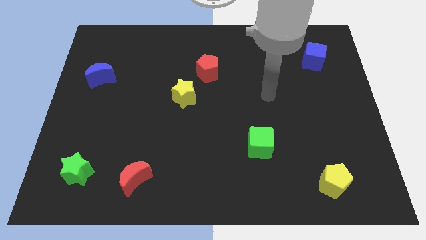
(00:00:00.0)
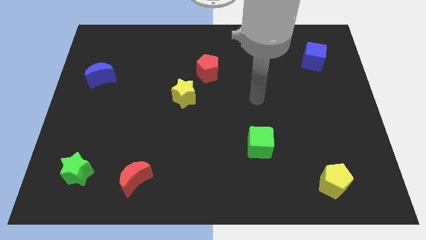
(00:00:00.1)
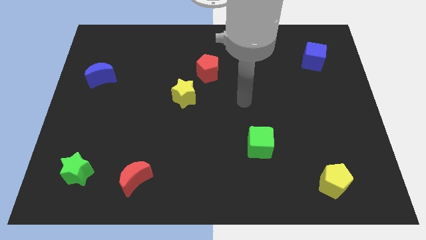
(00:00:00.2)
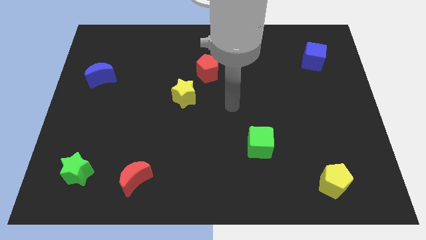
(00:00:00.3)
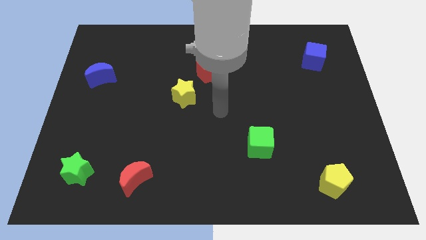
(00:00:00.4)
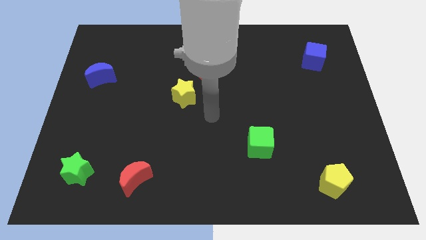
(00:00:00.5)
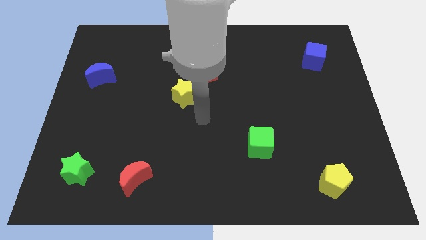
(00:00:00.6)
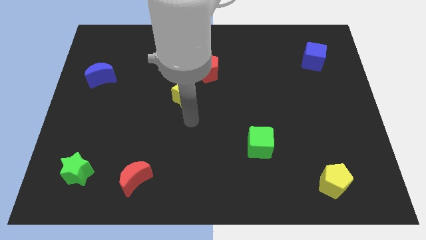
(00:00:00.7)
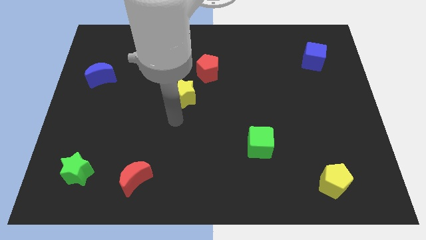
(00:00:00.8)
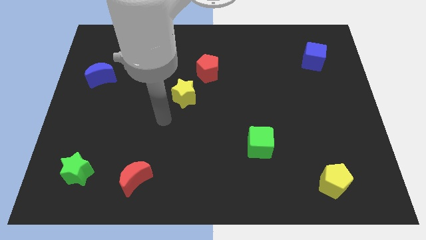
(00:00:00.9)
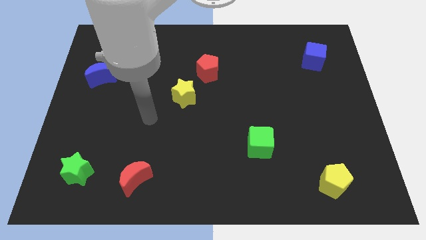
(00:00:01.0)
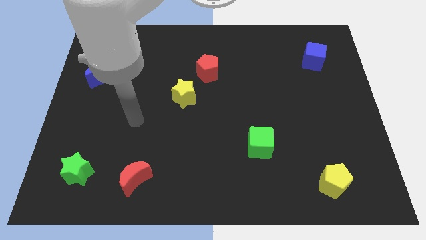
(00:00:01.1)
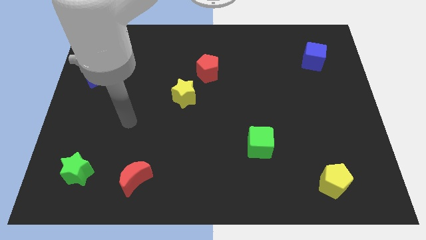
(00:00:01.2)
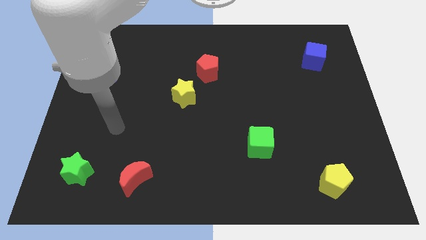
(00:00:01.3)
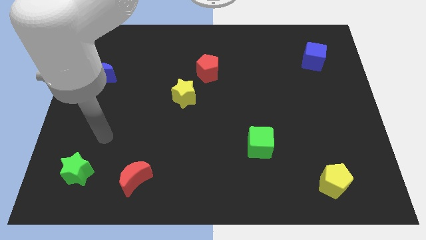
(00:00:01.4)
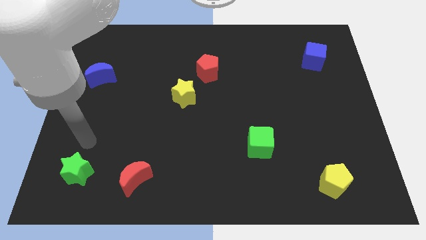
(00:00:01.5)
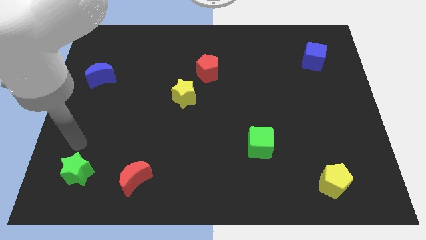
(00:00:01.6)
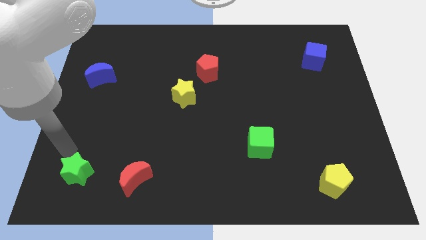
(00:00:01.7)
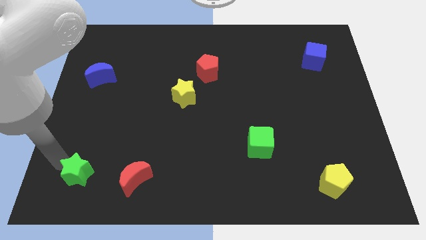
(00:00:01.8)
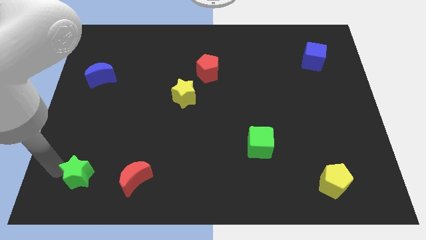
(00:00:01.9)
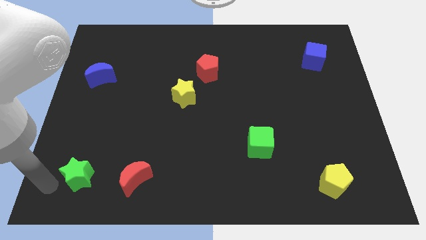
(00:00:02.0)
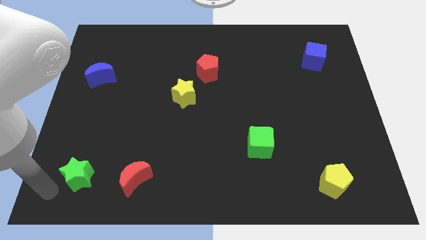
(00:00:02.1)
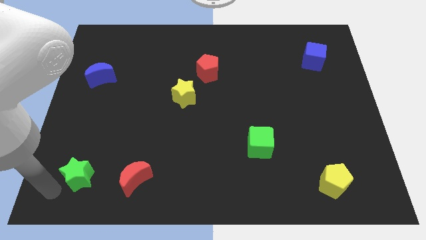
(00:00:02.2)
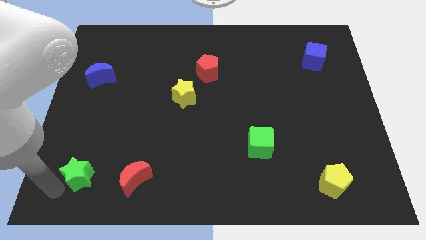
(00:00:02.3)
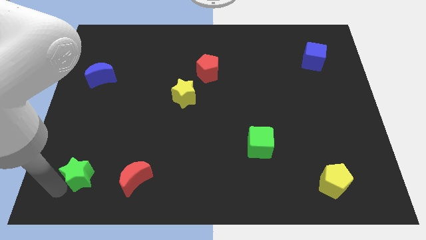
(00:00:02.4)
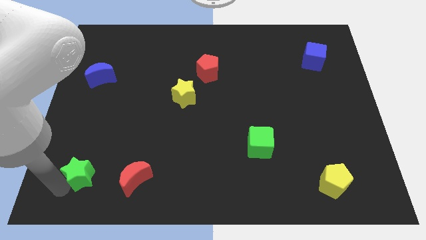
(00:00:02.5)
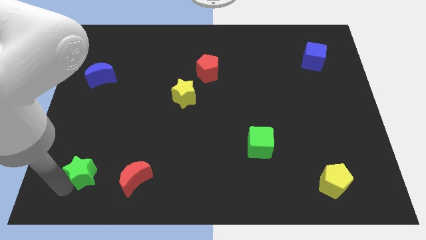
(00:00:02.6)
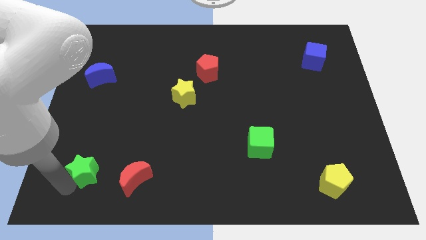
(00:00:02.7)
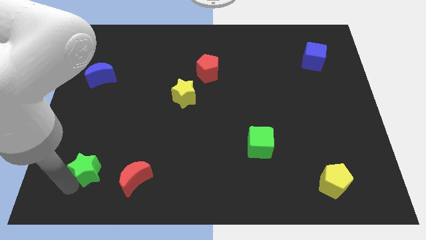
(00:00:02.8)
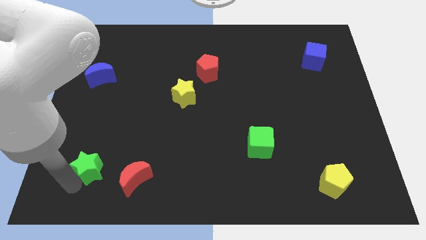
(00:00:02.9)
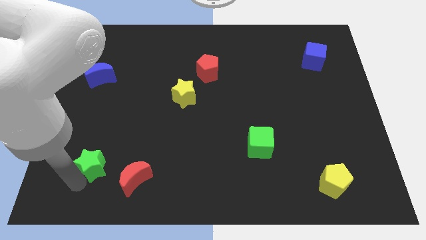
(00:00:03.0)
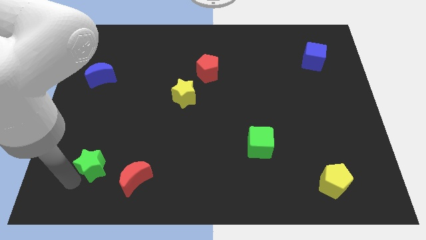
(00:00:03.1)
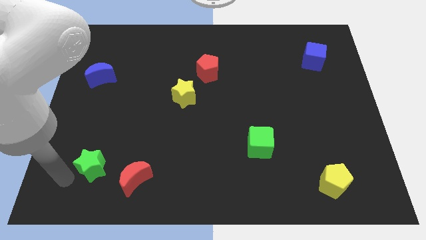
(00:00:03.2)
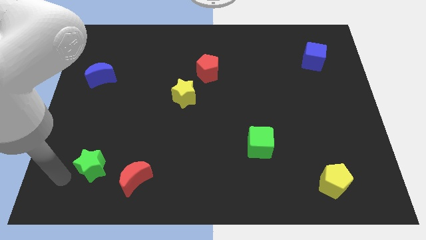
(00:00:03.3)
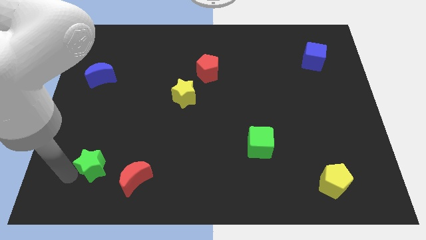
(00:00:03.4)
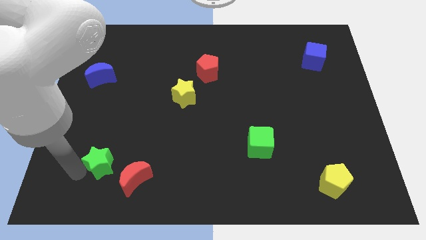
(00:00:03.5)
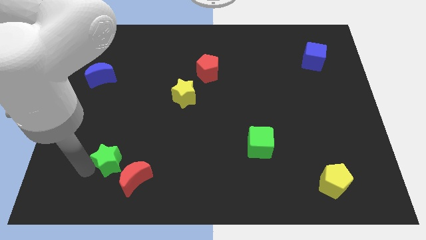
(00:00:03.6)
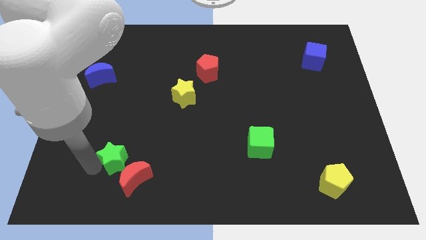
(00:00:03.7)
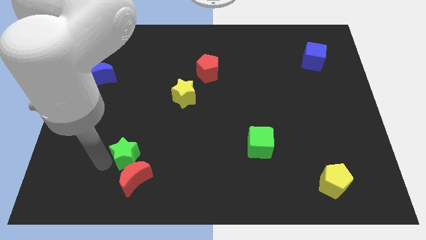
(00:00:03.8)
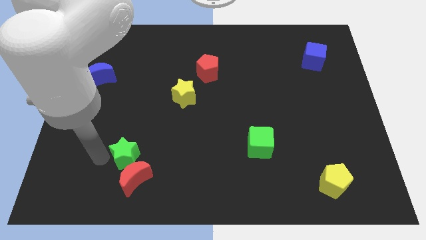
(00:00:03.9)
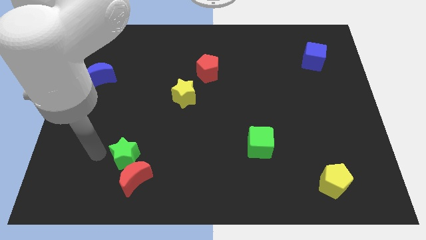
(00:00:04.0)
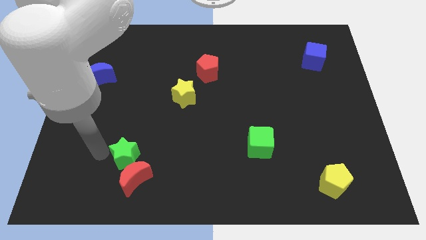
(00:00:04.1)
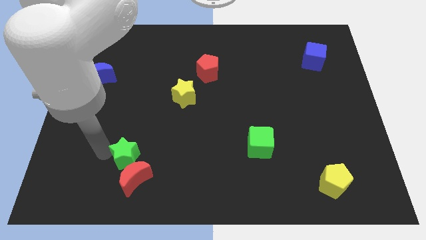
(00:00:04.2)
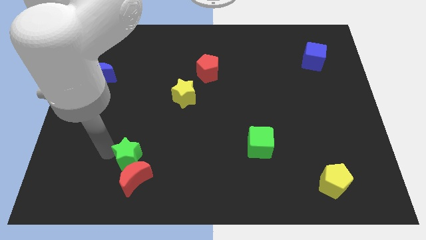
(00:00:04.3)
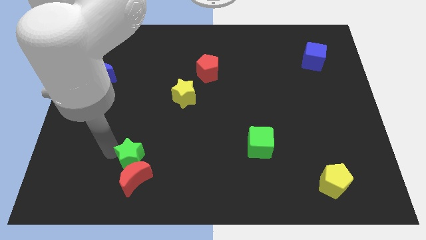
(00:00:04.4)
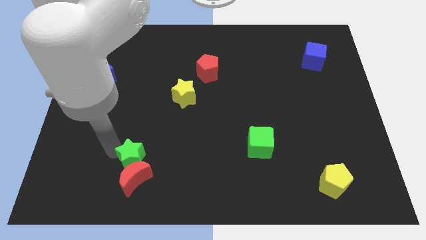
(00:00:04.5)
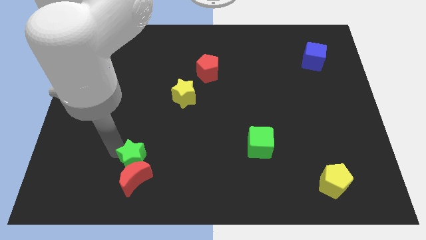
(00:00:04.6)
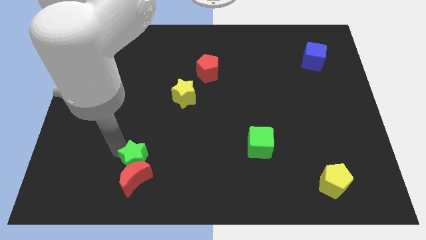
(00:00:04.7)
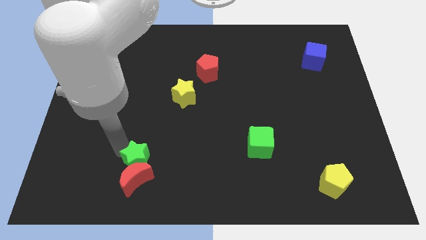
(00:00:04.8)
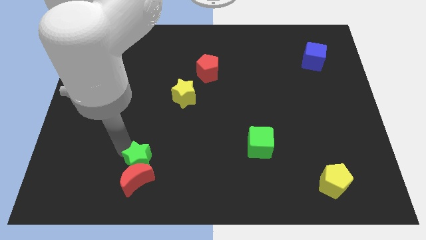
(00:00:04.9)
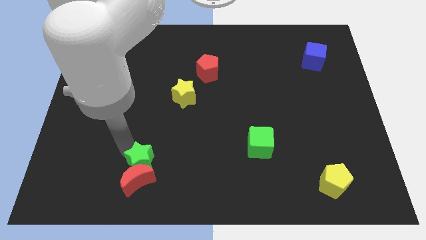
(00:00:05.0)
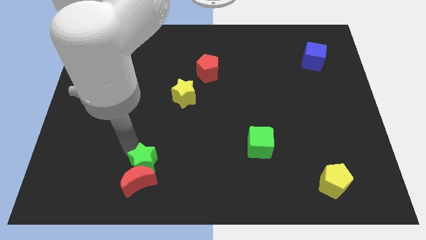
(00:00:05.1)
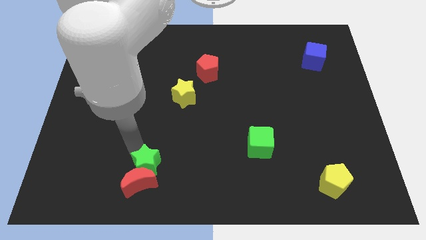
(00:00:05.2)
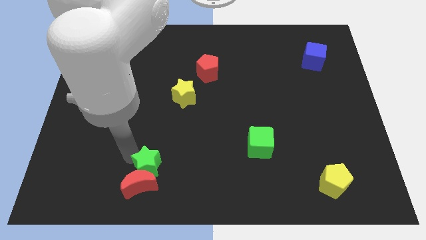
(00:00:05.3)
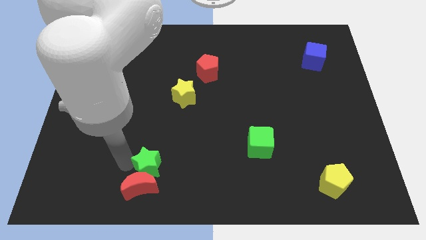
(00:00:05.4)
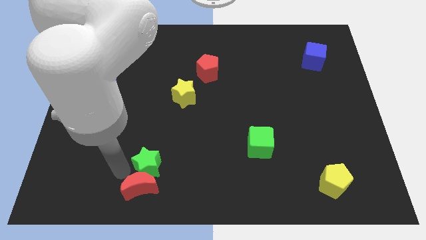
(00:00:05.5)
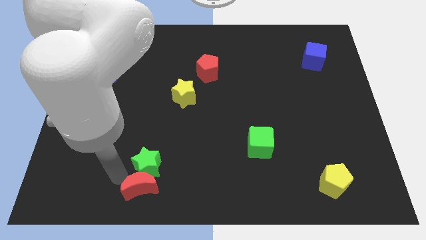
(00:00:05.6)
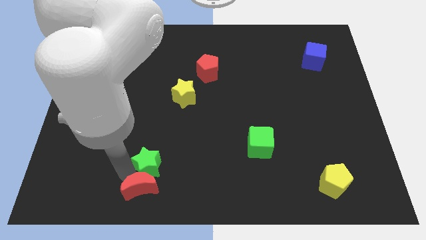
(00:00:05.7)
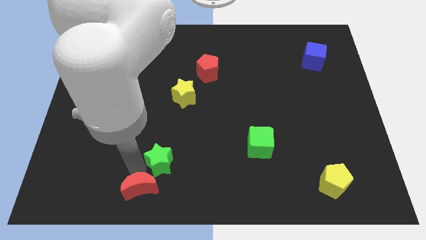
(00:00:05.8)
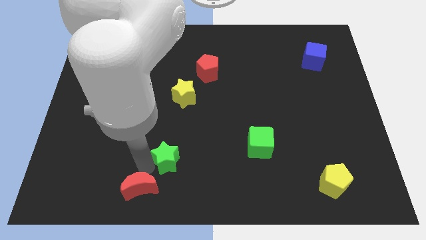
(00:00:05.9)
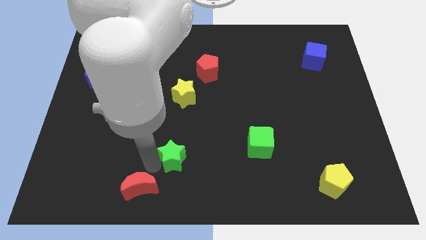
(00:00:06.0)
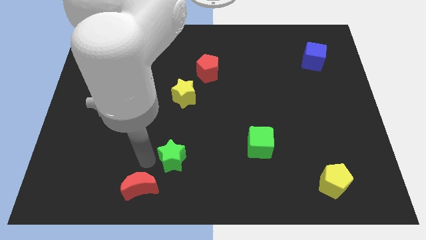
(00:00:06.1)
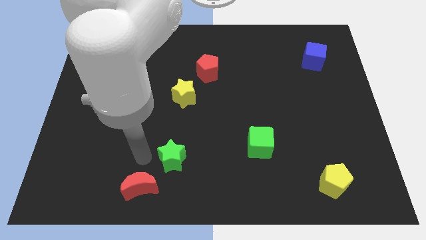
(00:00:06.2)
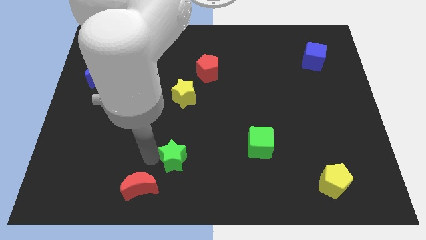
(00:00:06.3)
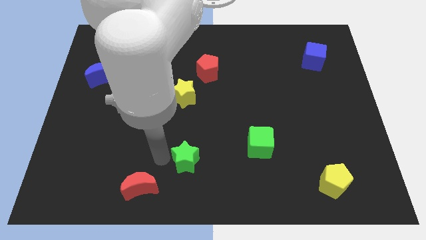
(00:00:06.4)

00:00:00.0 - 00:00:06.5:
slide the green star right

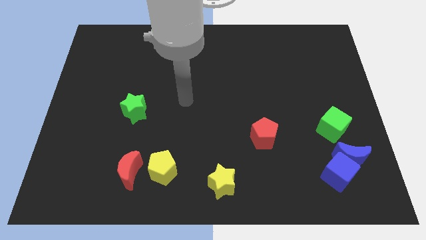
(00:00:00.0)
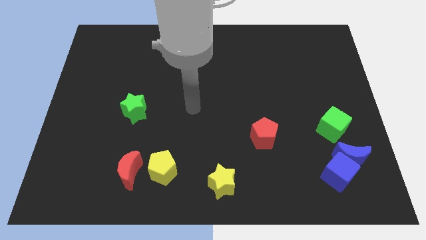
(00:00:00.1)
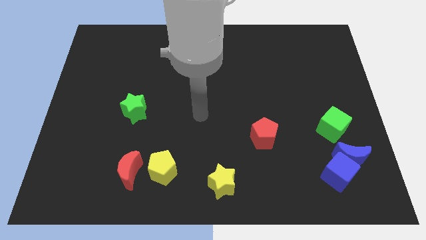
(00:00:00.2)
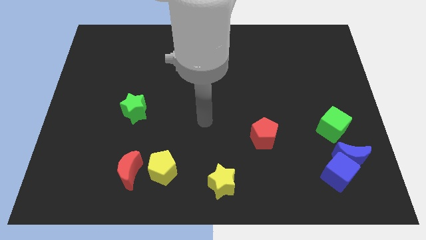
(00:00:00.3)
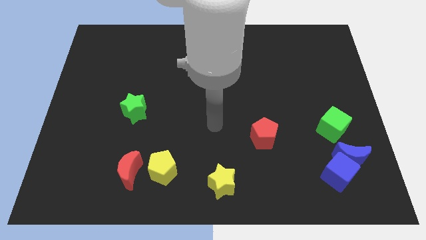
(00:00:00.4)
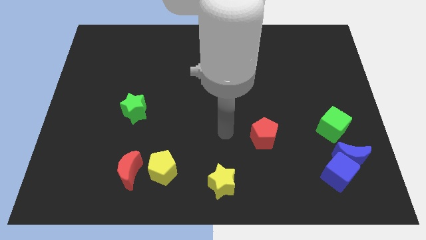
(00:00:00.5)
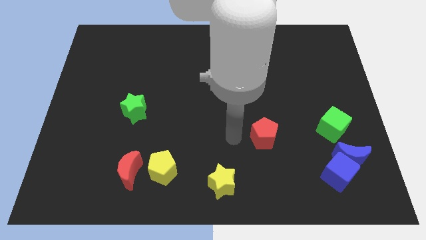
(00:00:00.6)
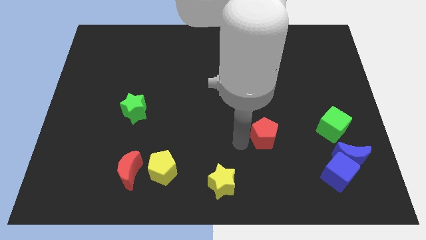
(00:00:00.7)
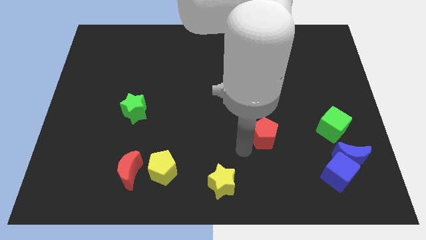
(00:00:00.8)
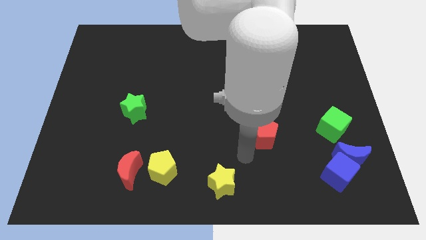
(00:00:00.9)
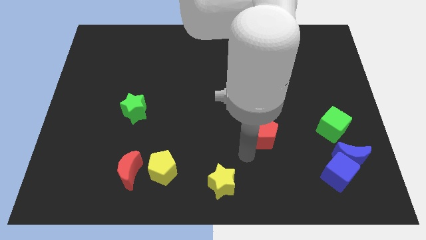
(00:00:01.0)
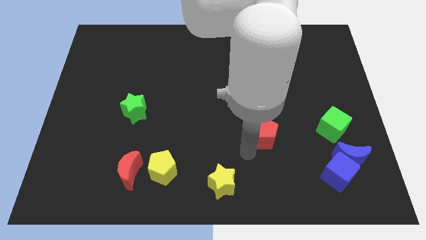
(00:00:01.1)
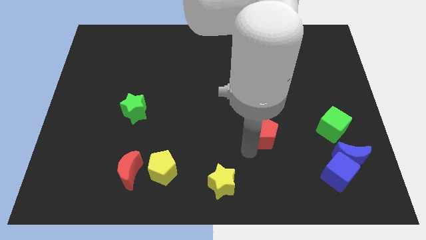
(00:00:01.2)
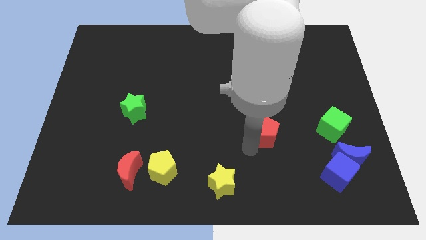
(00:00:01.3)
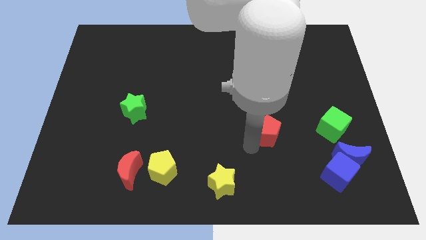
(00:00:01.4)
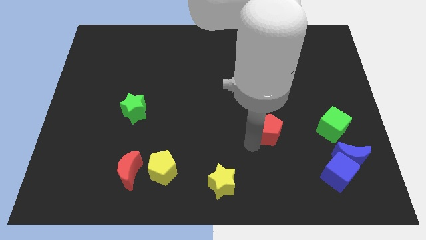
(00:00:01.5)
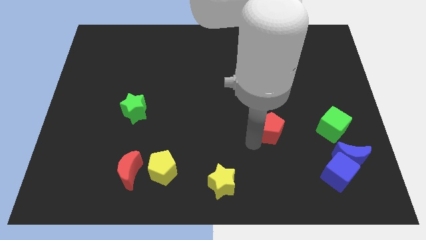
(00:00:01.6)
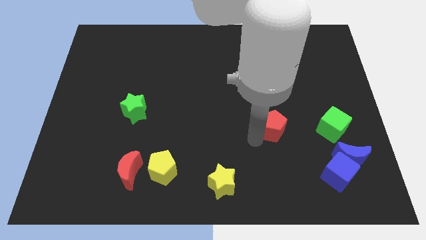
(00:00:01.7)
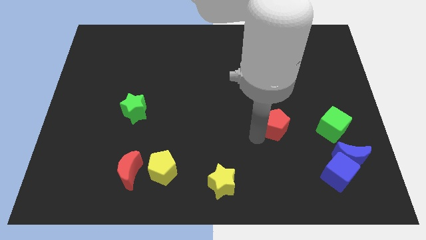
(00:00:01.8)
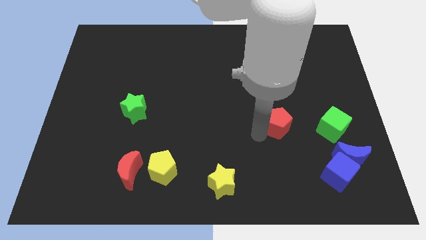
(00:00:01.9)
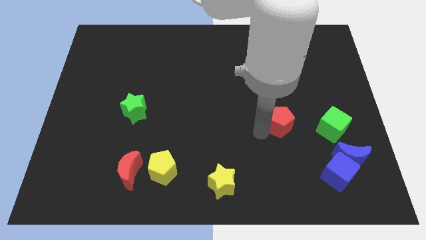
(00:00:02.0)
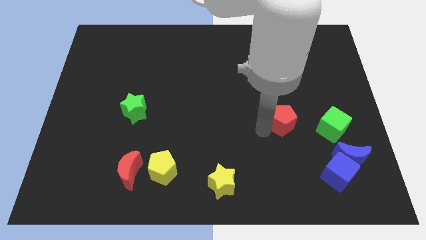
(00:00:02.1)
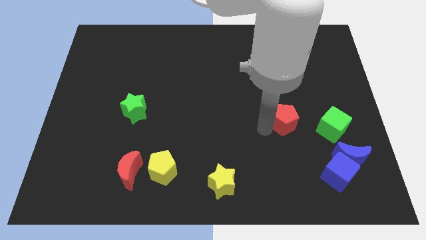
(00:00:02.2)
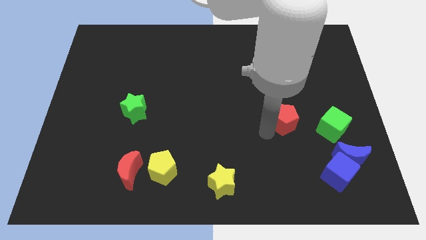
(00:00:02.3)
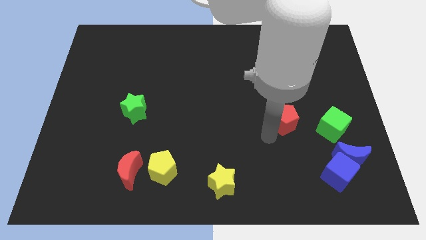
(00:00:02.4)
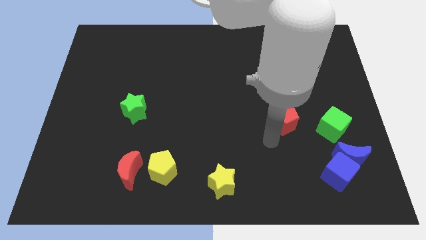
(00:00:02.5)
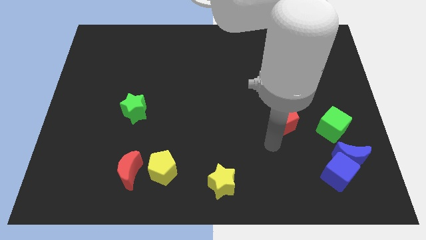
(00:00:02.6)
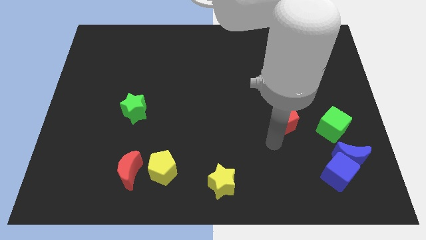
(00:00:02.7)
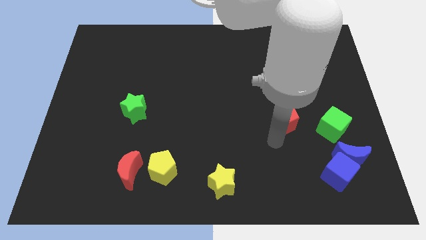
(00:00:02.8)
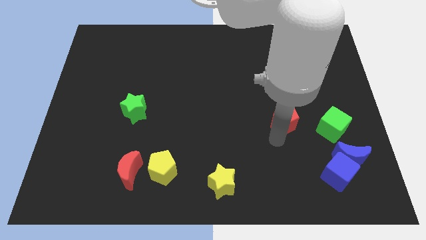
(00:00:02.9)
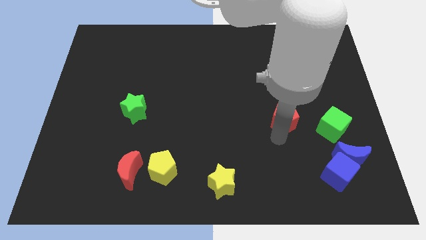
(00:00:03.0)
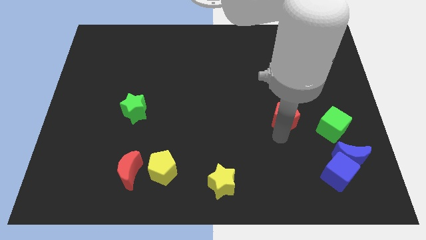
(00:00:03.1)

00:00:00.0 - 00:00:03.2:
slightly slide the red pentagon upwards and then right
